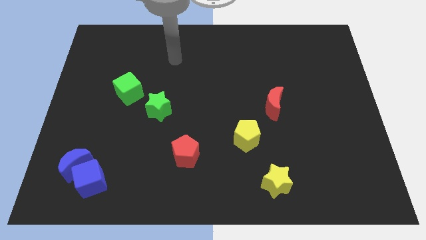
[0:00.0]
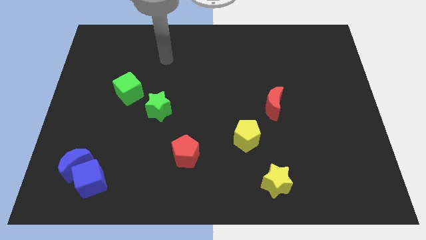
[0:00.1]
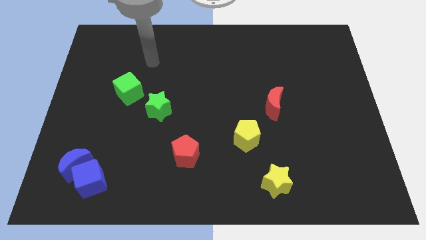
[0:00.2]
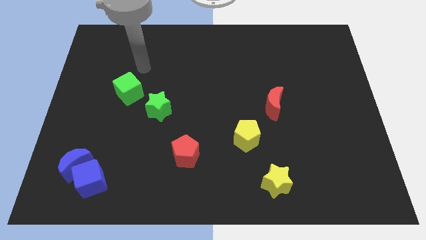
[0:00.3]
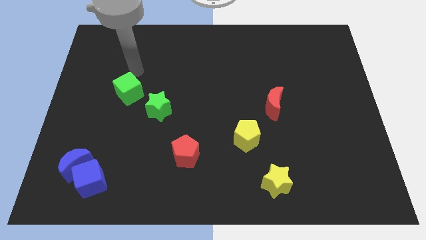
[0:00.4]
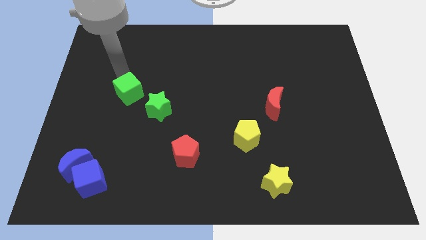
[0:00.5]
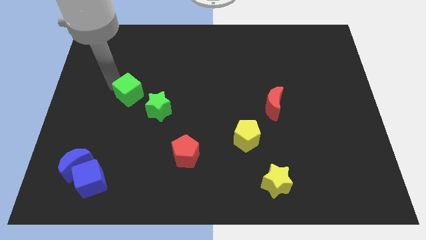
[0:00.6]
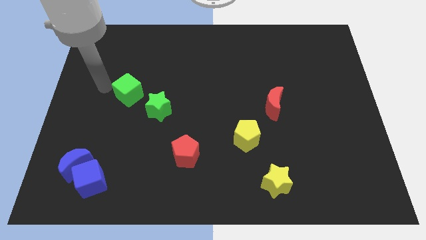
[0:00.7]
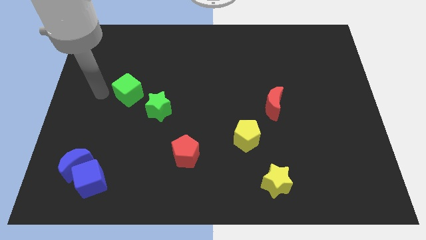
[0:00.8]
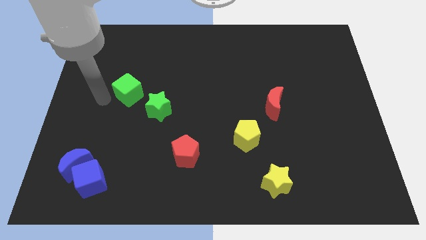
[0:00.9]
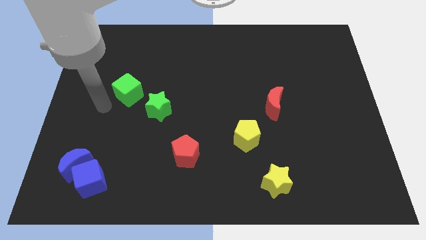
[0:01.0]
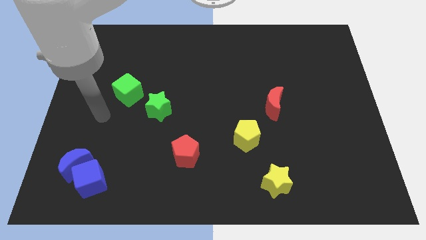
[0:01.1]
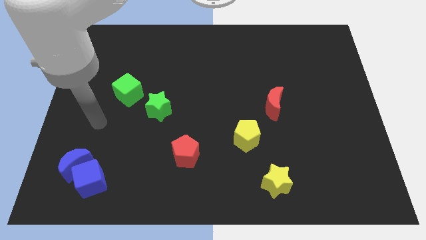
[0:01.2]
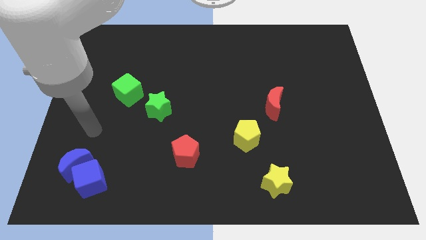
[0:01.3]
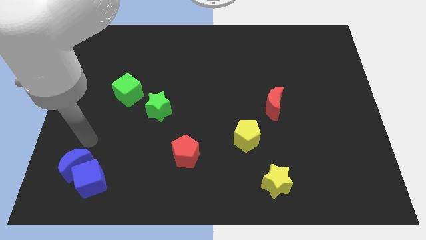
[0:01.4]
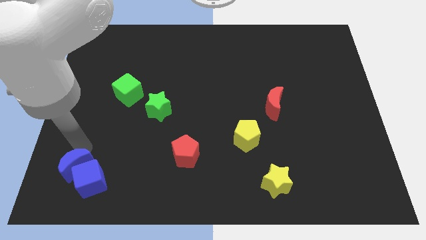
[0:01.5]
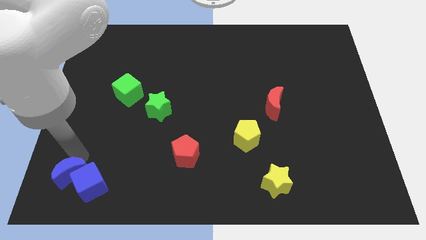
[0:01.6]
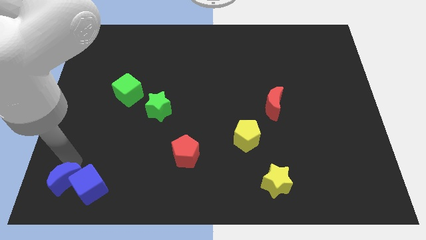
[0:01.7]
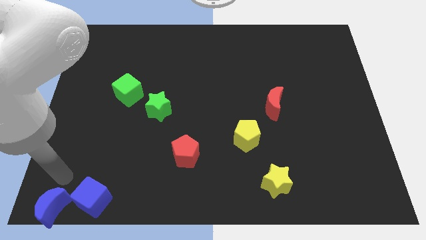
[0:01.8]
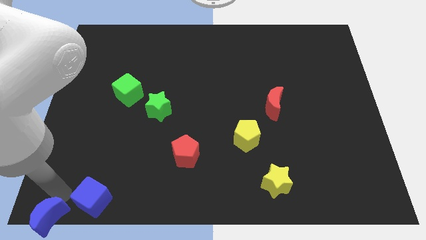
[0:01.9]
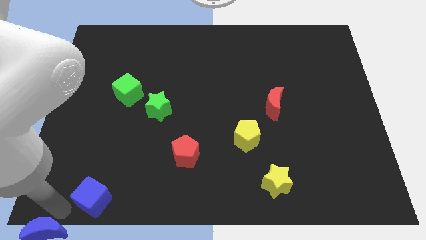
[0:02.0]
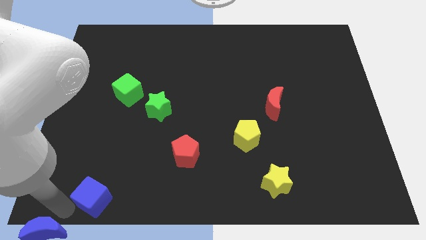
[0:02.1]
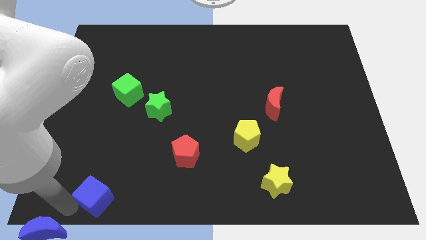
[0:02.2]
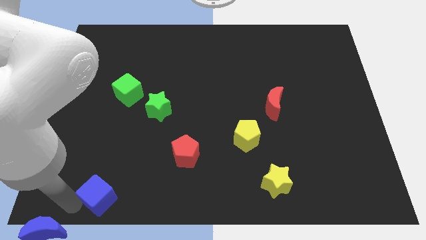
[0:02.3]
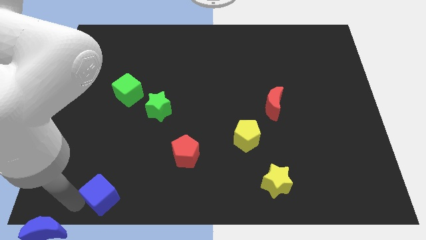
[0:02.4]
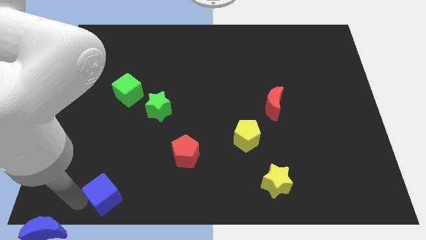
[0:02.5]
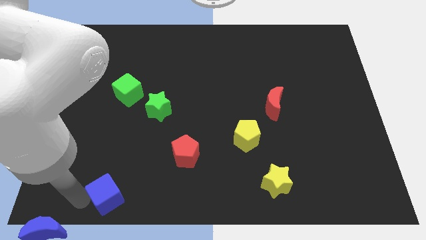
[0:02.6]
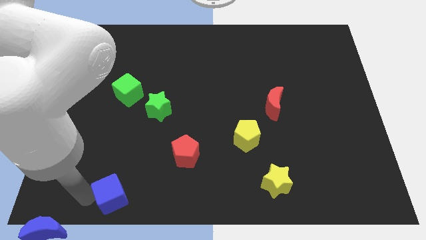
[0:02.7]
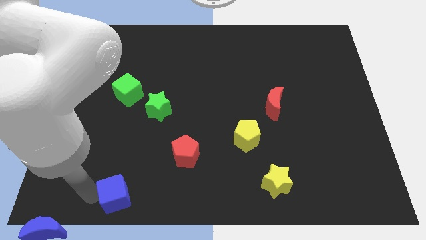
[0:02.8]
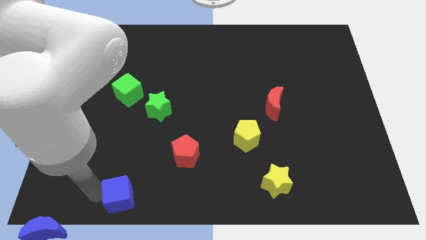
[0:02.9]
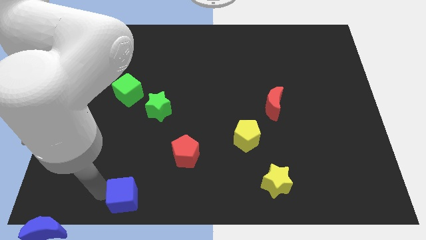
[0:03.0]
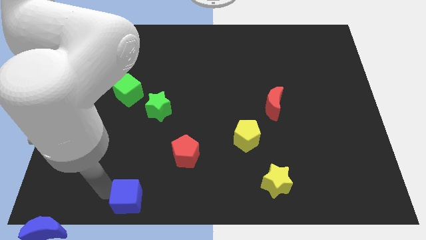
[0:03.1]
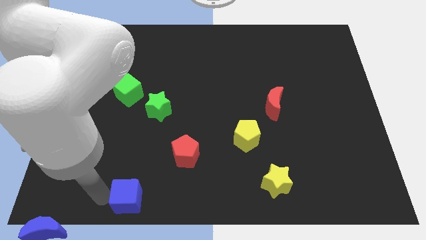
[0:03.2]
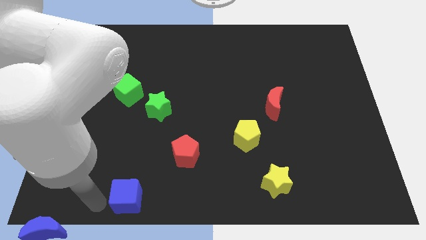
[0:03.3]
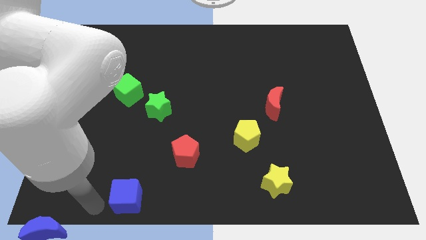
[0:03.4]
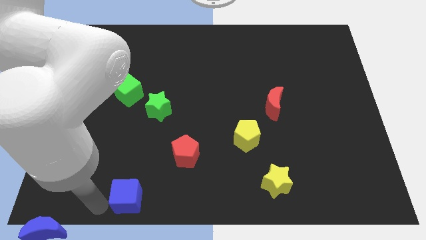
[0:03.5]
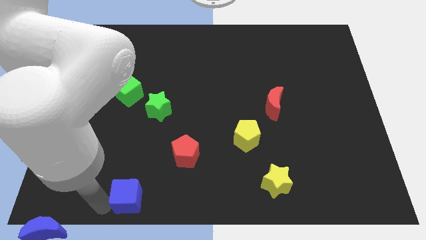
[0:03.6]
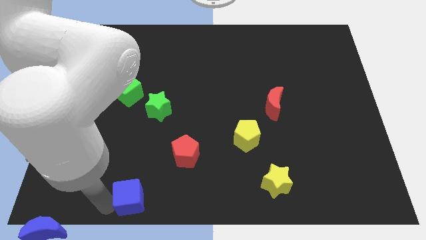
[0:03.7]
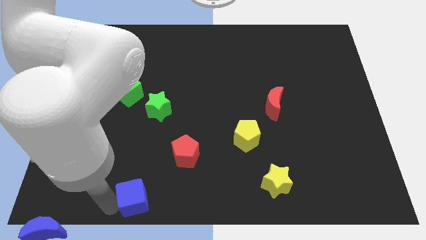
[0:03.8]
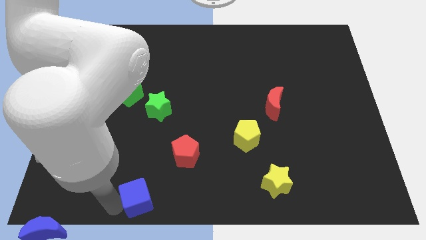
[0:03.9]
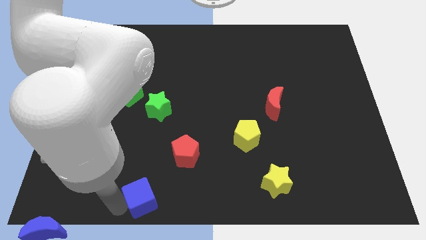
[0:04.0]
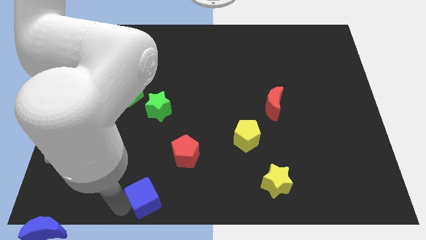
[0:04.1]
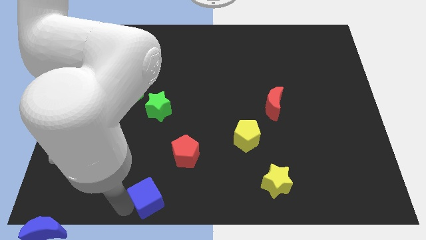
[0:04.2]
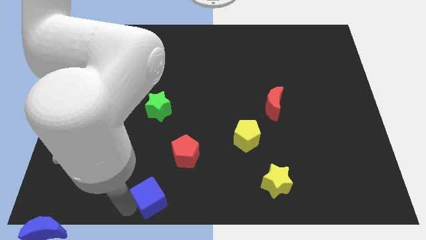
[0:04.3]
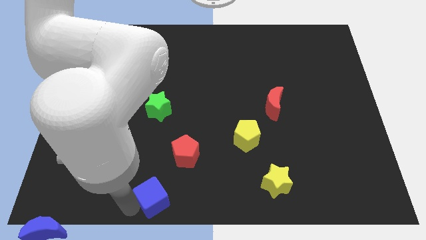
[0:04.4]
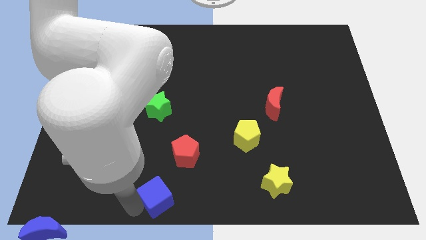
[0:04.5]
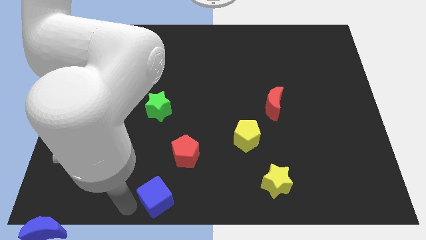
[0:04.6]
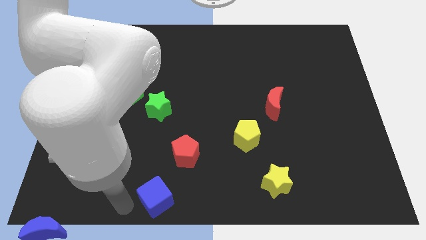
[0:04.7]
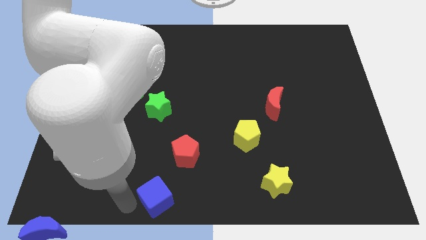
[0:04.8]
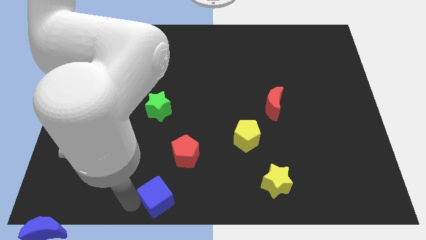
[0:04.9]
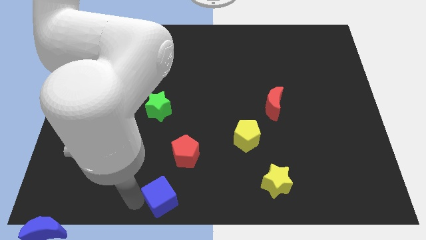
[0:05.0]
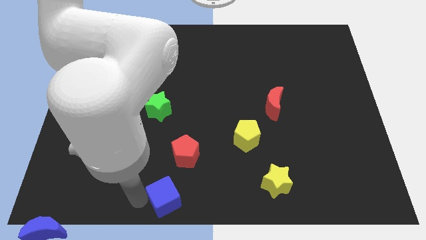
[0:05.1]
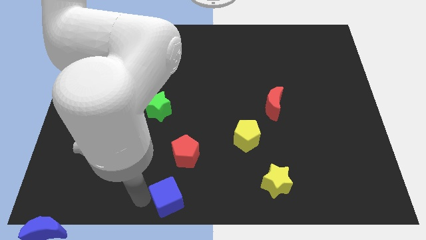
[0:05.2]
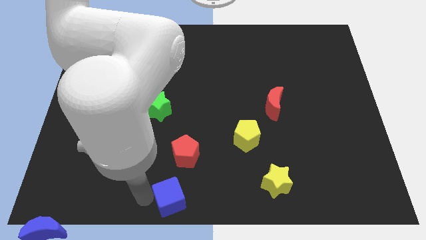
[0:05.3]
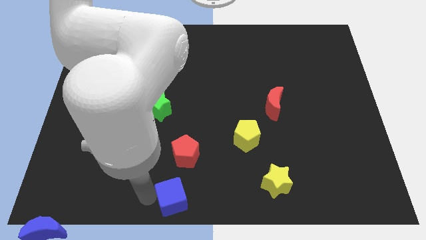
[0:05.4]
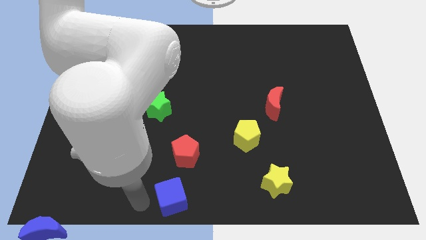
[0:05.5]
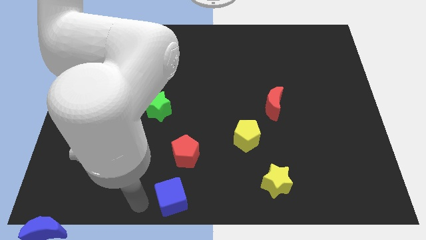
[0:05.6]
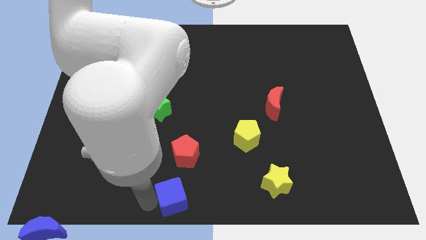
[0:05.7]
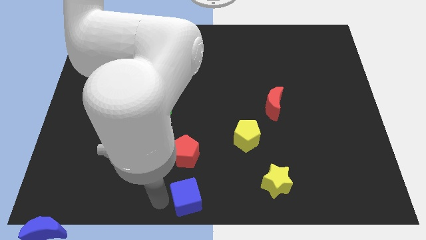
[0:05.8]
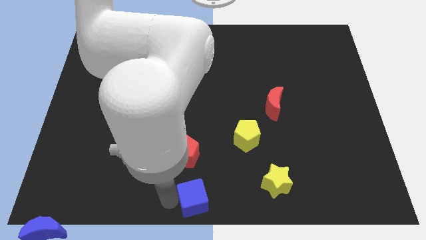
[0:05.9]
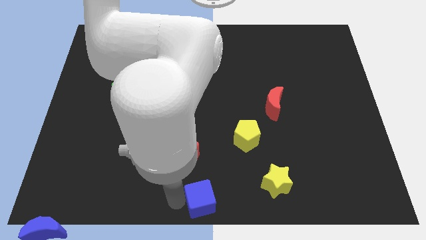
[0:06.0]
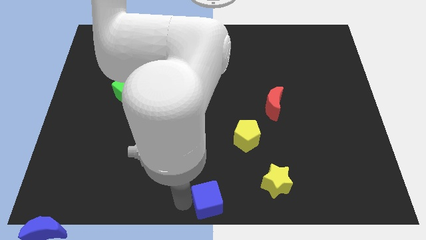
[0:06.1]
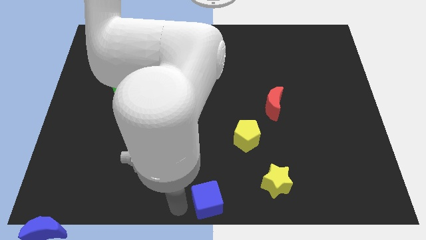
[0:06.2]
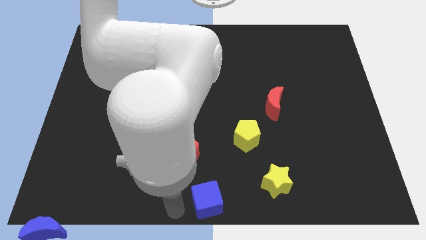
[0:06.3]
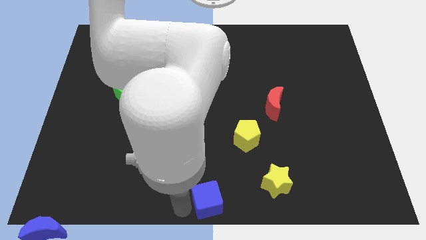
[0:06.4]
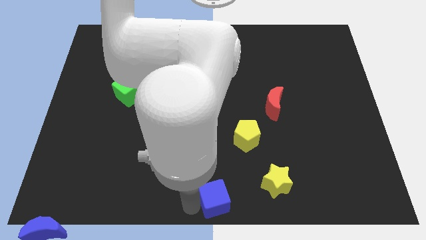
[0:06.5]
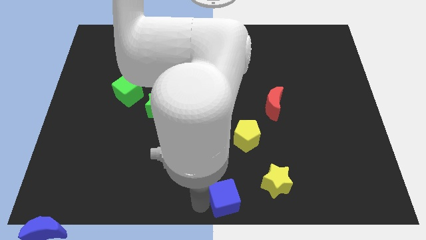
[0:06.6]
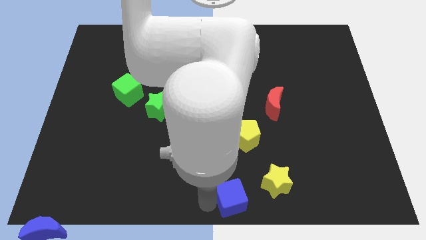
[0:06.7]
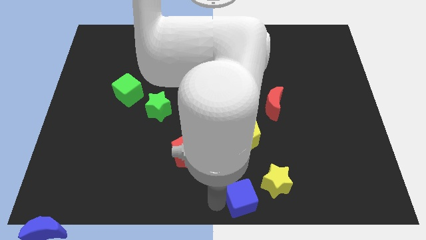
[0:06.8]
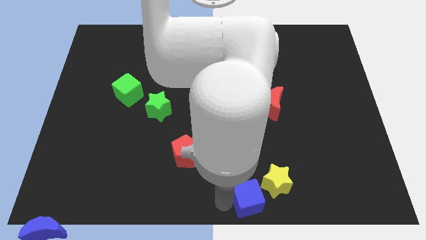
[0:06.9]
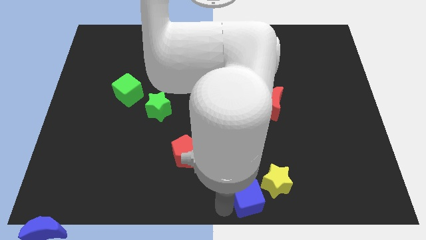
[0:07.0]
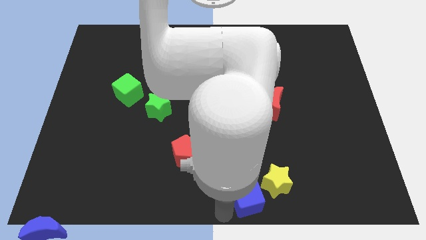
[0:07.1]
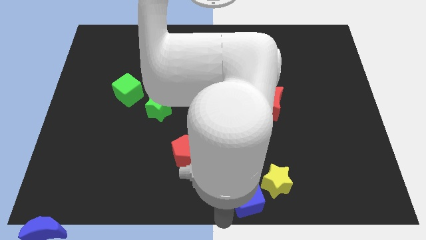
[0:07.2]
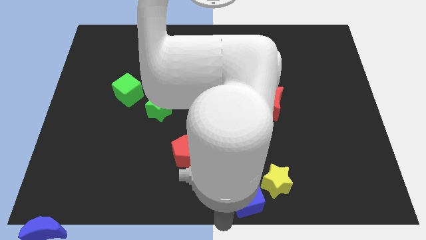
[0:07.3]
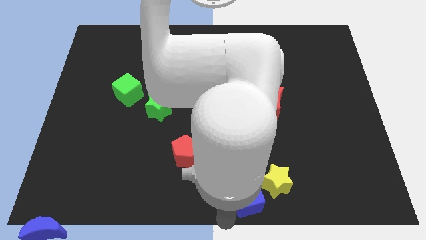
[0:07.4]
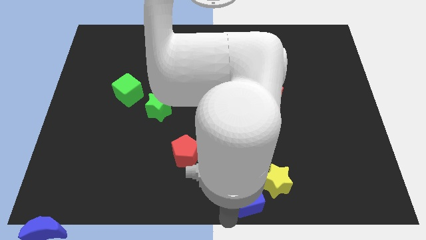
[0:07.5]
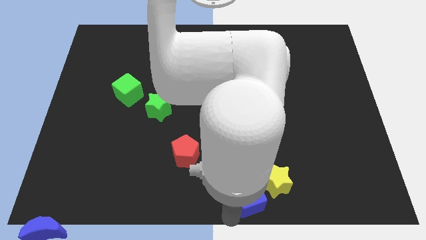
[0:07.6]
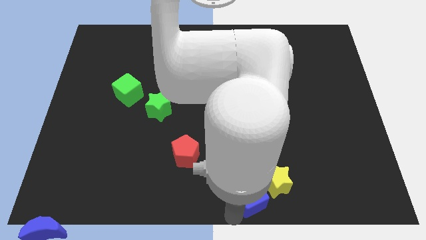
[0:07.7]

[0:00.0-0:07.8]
slide the blue cube close to the yellow star

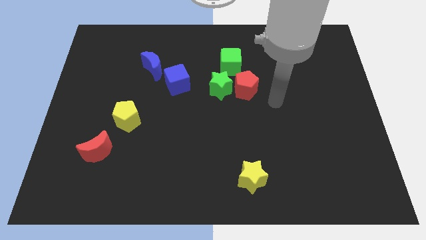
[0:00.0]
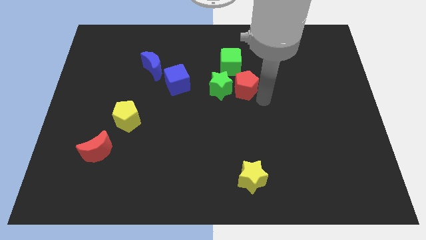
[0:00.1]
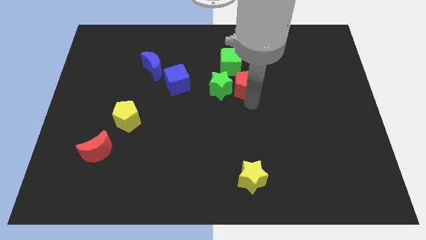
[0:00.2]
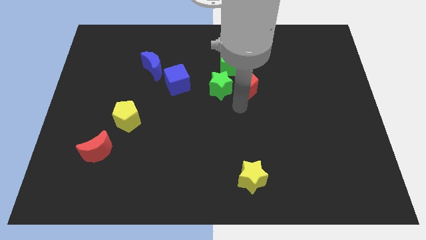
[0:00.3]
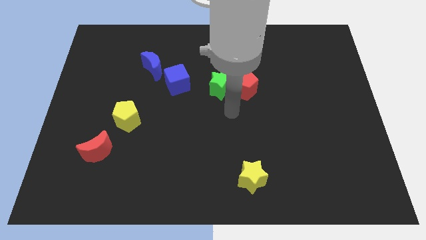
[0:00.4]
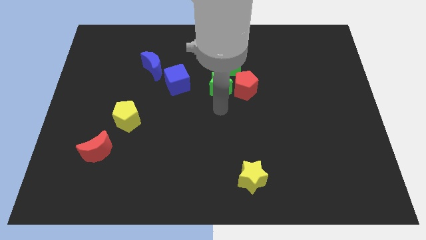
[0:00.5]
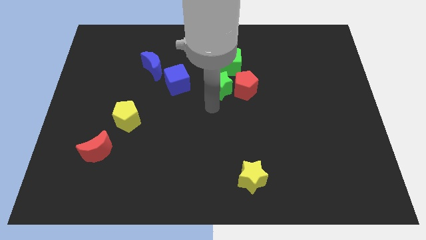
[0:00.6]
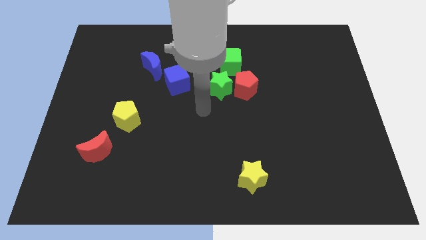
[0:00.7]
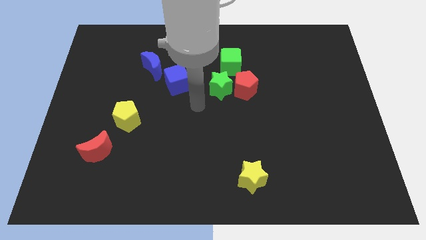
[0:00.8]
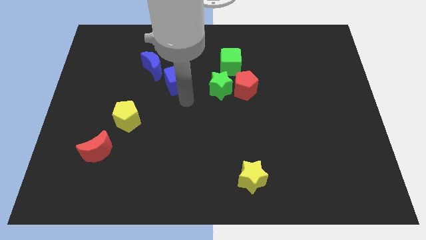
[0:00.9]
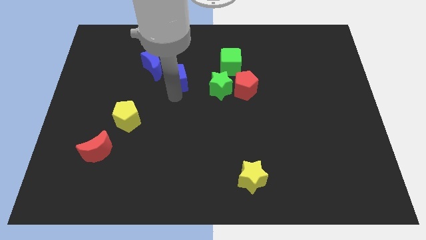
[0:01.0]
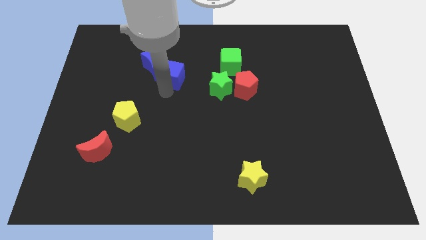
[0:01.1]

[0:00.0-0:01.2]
slide the blue moon next to the blue cube
